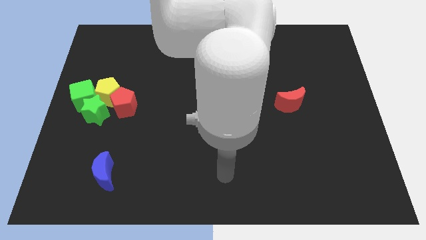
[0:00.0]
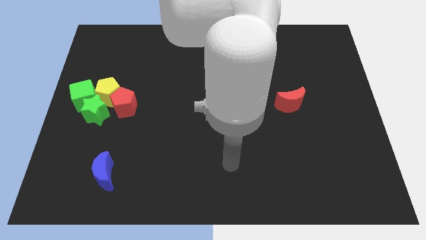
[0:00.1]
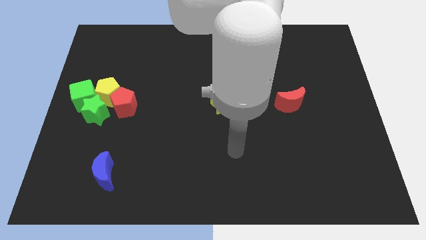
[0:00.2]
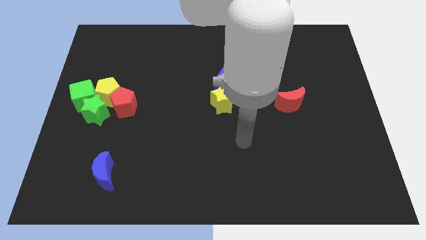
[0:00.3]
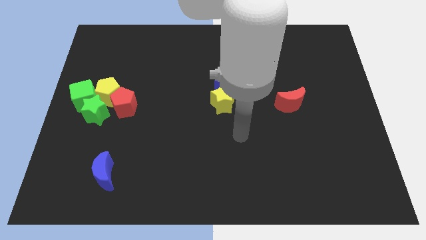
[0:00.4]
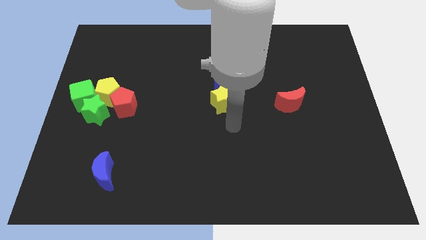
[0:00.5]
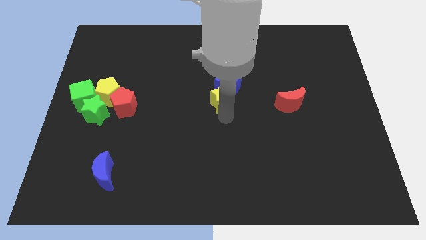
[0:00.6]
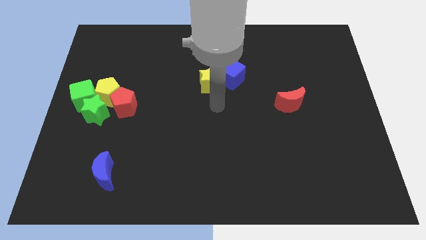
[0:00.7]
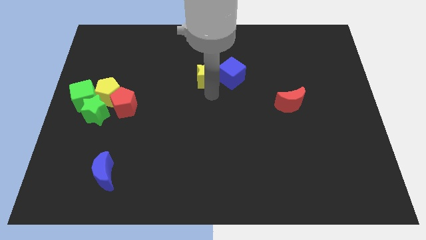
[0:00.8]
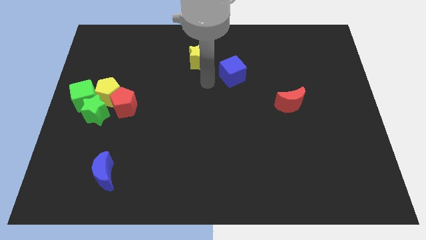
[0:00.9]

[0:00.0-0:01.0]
move the blue cube away from the yellow star

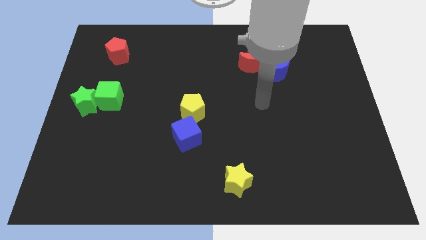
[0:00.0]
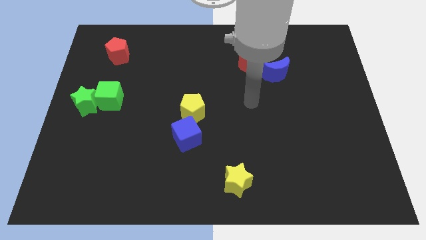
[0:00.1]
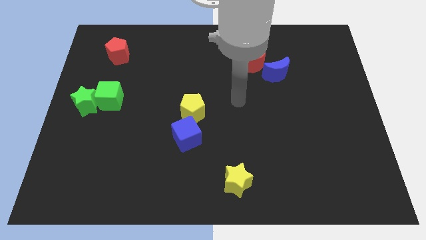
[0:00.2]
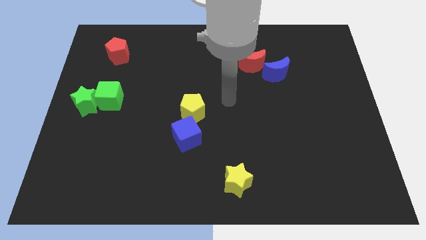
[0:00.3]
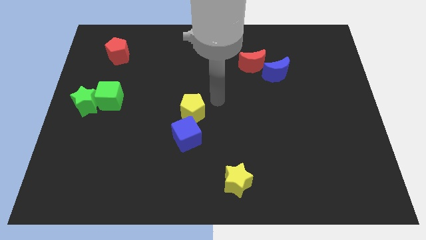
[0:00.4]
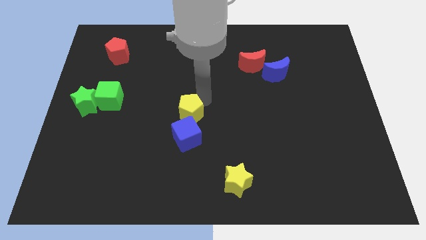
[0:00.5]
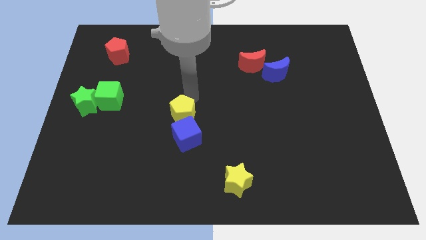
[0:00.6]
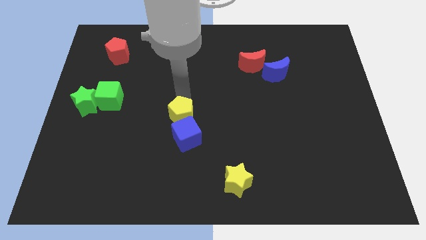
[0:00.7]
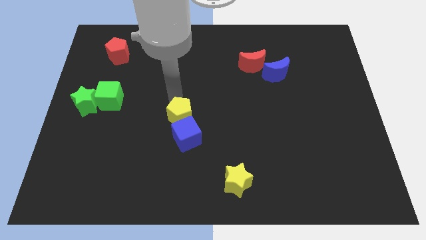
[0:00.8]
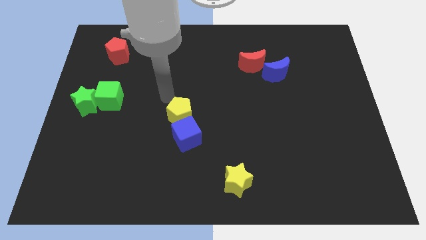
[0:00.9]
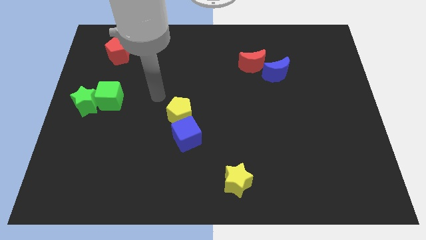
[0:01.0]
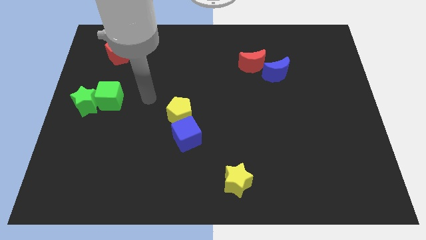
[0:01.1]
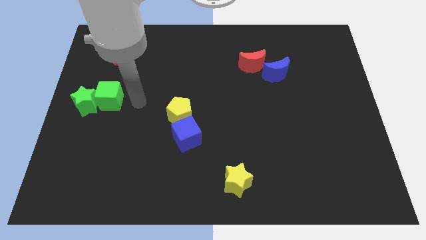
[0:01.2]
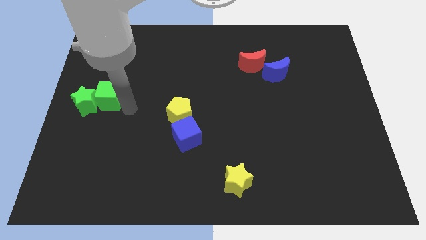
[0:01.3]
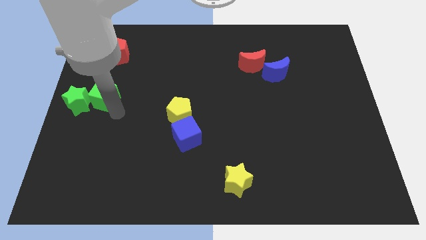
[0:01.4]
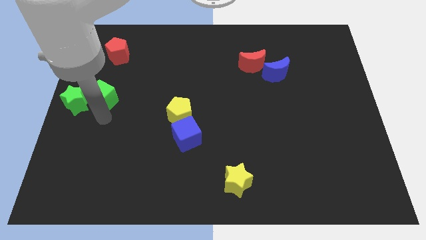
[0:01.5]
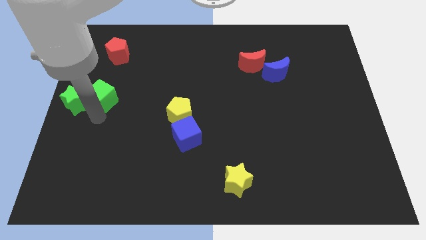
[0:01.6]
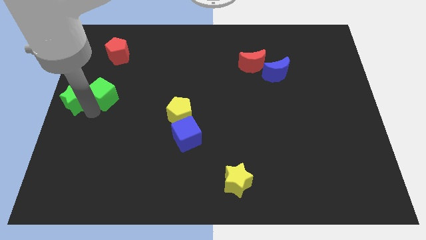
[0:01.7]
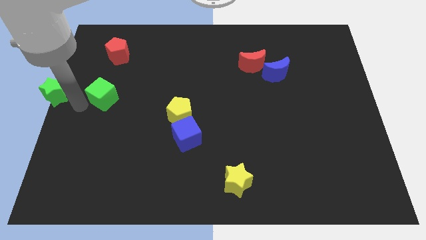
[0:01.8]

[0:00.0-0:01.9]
pull the green cube apart from the green star

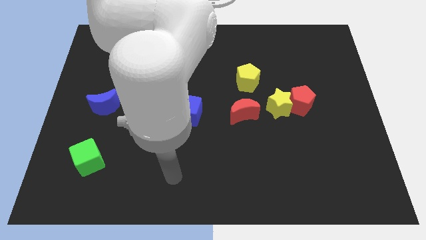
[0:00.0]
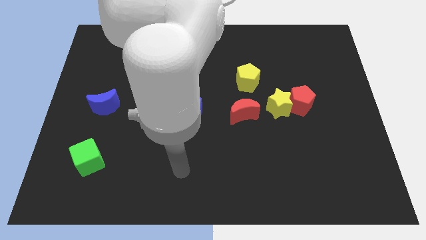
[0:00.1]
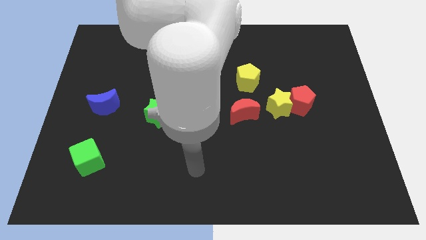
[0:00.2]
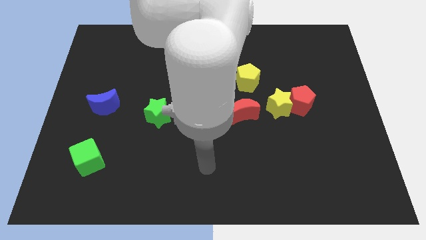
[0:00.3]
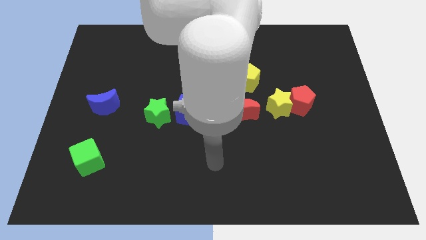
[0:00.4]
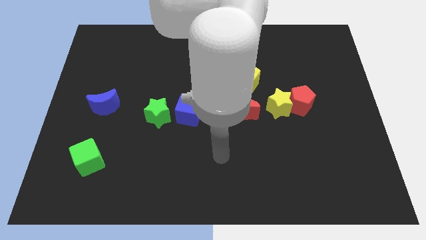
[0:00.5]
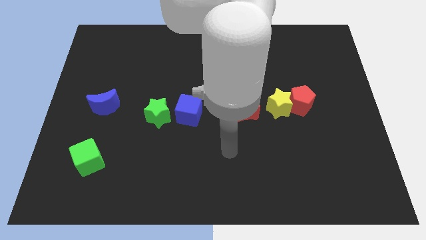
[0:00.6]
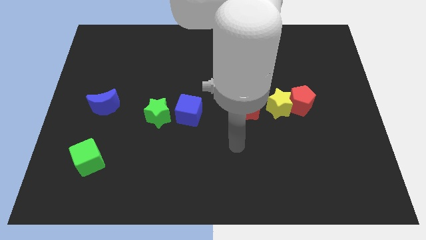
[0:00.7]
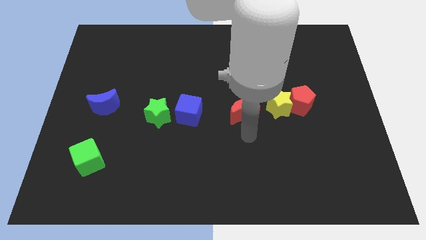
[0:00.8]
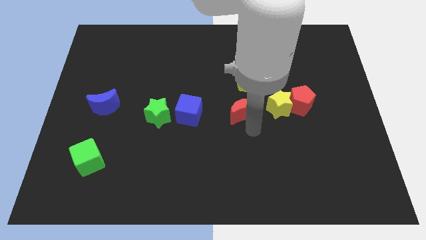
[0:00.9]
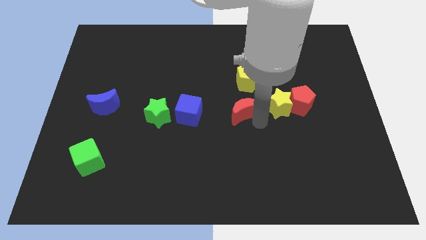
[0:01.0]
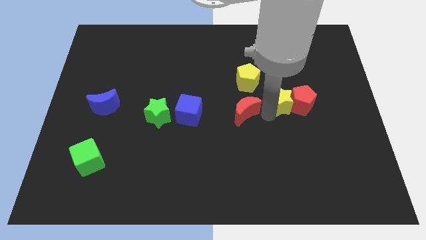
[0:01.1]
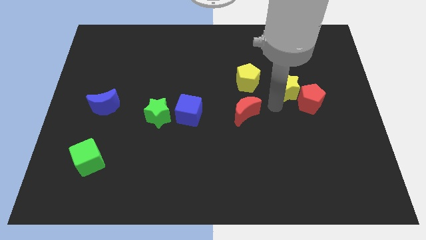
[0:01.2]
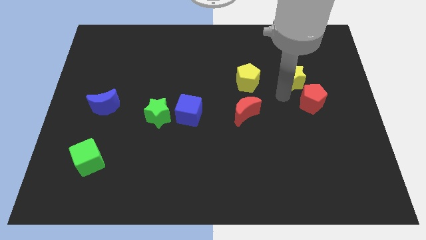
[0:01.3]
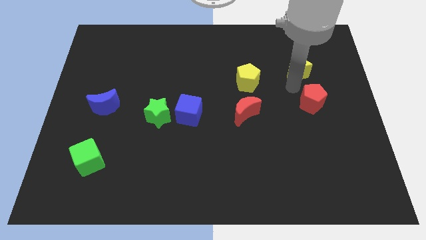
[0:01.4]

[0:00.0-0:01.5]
move the red pentagon away from the yellow star

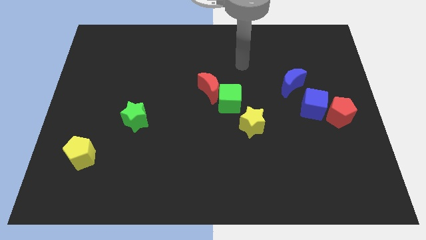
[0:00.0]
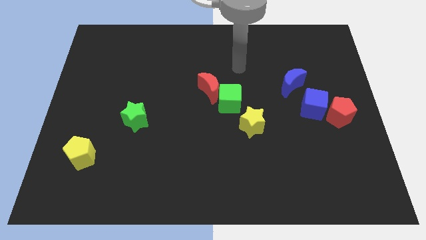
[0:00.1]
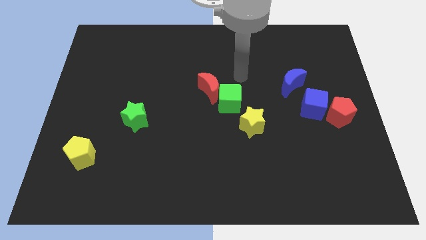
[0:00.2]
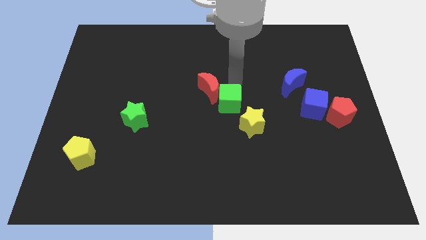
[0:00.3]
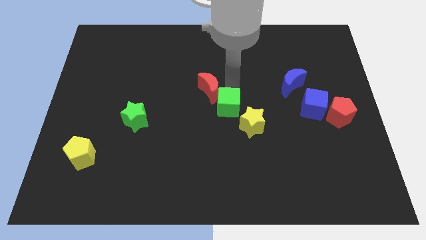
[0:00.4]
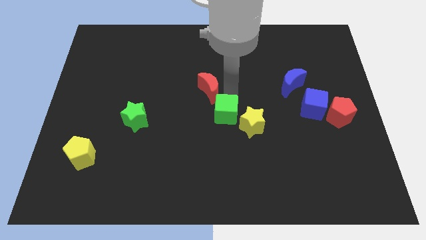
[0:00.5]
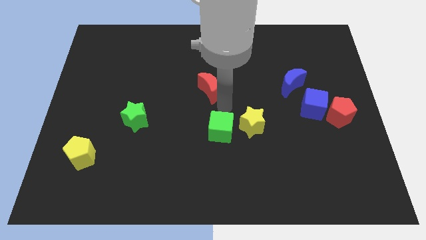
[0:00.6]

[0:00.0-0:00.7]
move the red moon away from the green cube

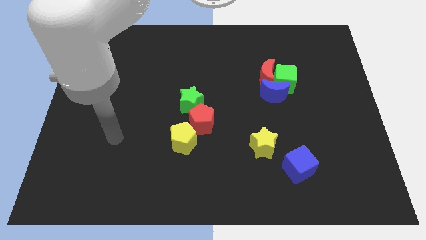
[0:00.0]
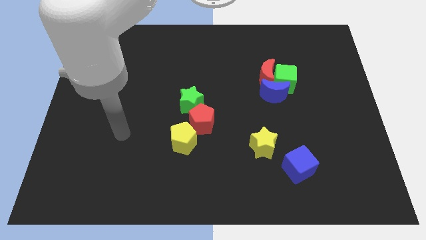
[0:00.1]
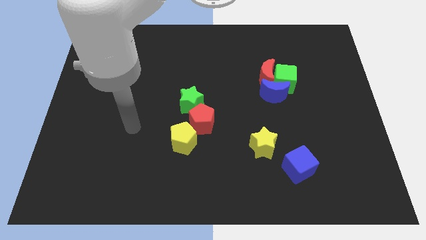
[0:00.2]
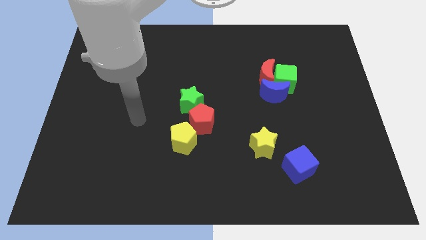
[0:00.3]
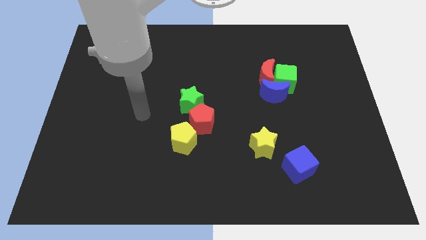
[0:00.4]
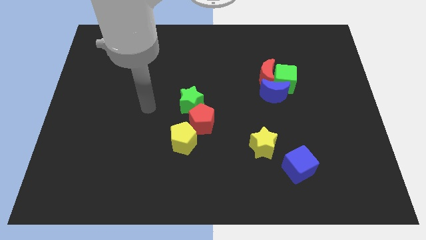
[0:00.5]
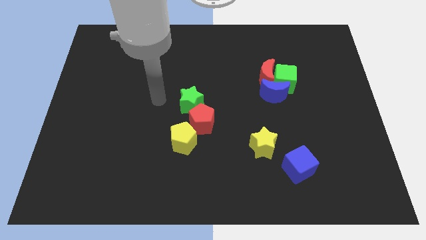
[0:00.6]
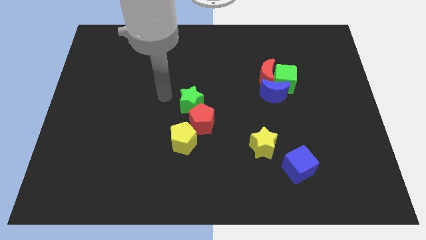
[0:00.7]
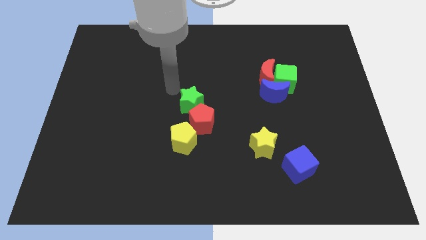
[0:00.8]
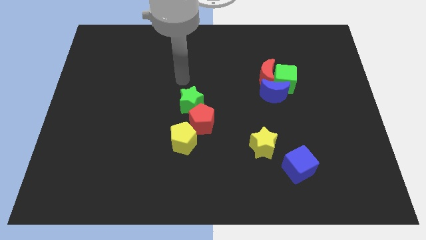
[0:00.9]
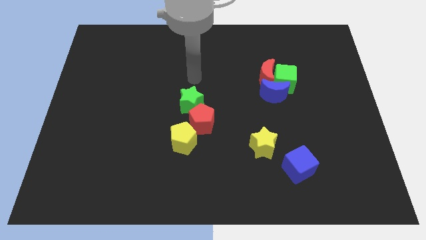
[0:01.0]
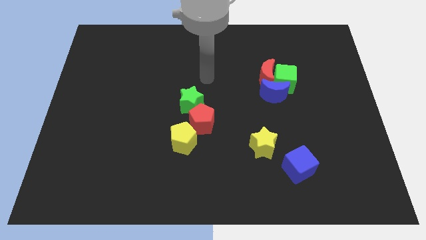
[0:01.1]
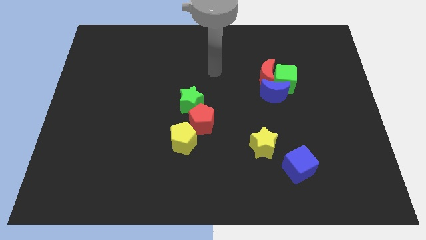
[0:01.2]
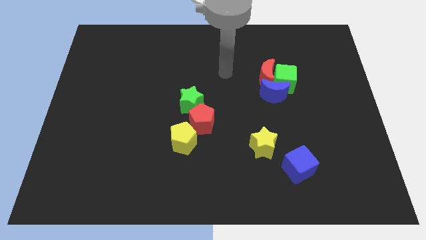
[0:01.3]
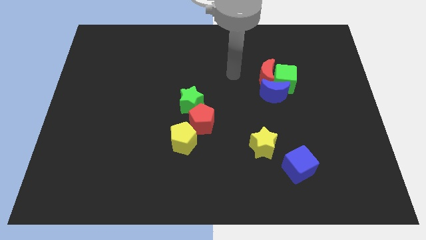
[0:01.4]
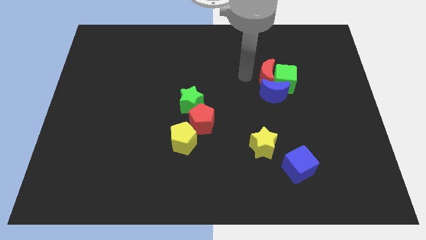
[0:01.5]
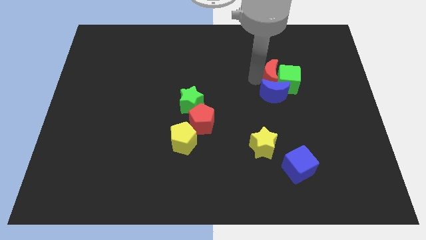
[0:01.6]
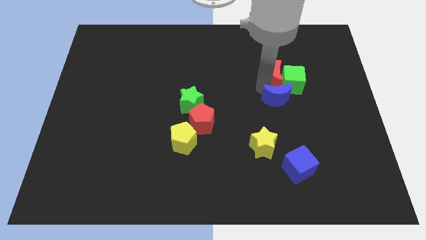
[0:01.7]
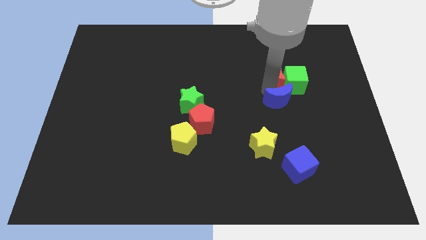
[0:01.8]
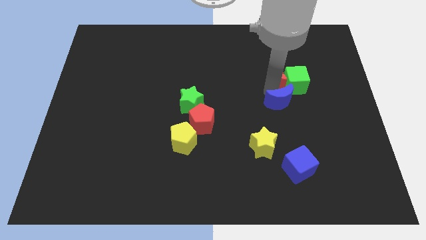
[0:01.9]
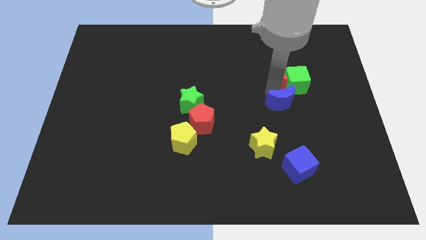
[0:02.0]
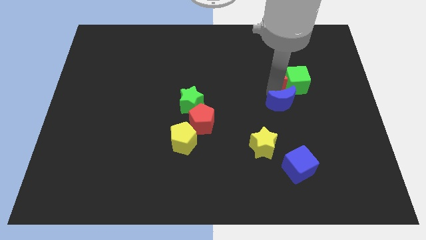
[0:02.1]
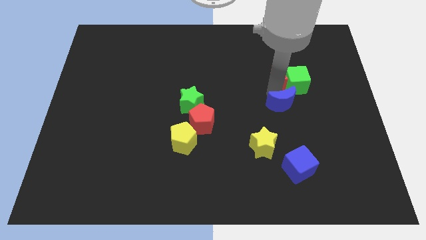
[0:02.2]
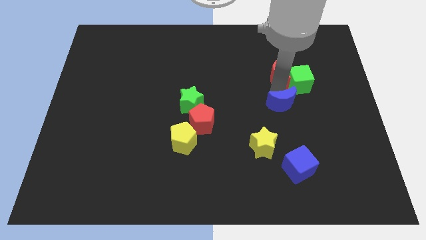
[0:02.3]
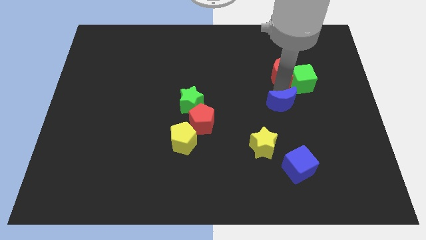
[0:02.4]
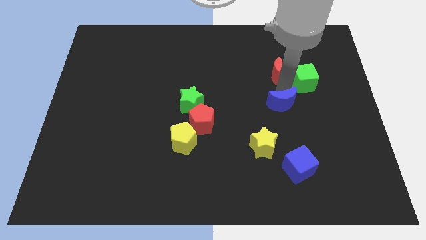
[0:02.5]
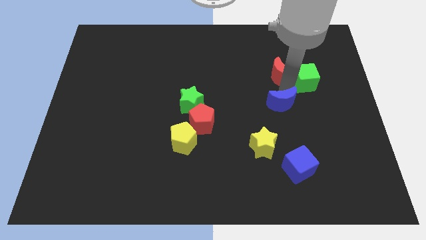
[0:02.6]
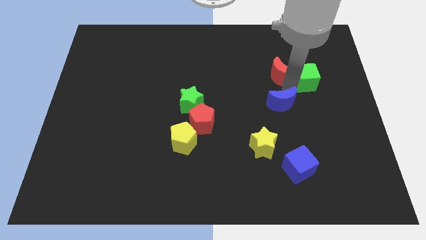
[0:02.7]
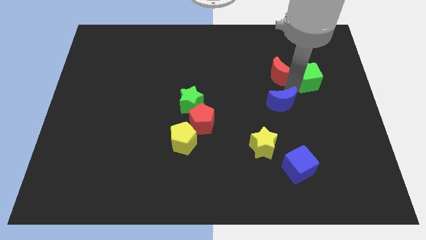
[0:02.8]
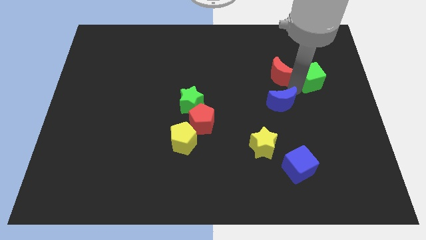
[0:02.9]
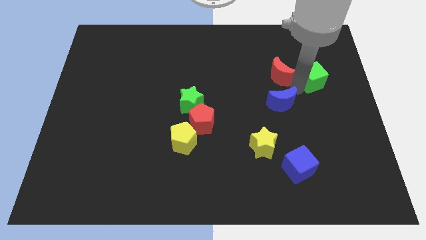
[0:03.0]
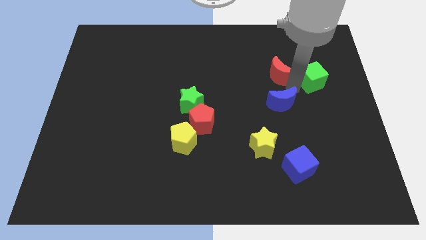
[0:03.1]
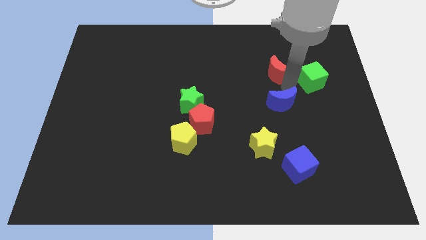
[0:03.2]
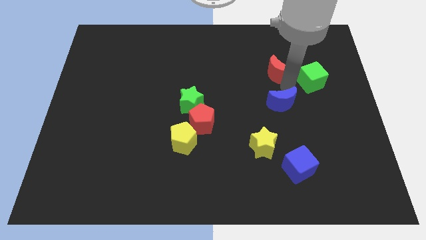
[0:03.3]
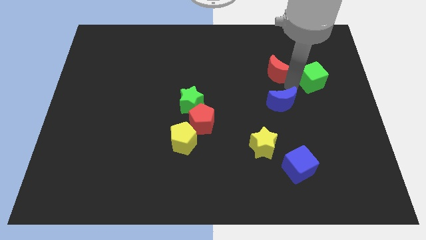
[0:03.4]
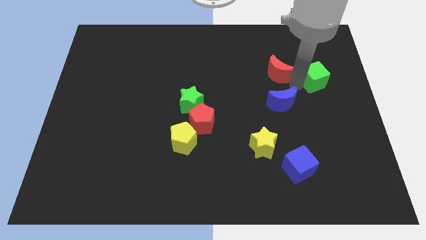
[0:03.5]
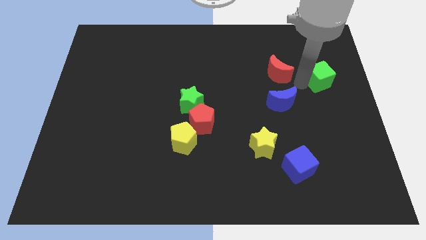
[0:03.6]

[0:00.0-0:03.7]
move the green cube away from the red moon and blue moon

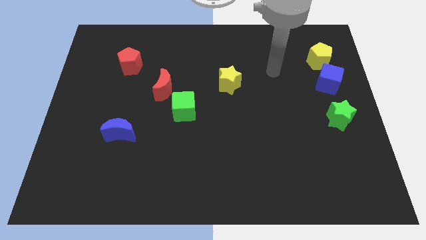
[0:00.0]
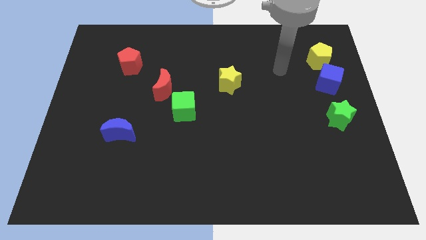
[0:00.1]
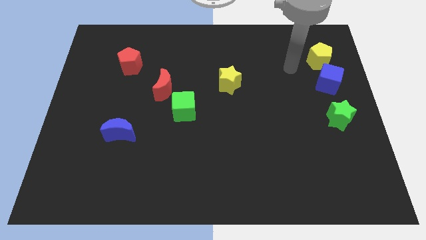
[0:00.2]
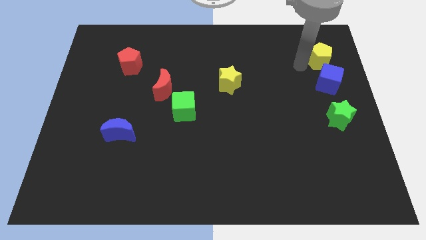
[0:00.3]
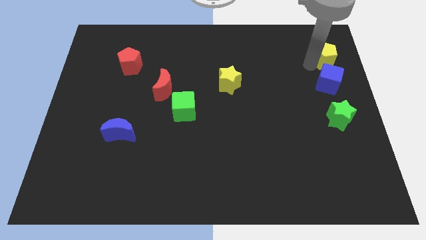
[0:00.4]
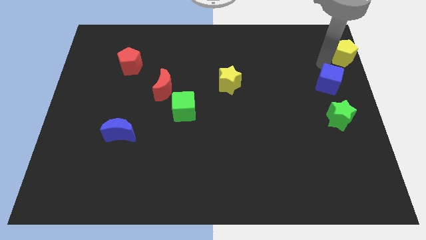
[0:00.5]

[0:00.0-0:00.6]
move the blue cube away from the yellow pentagon
